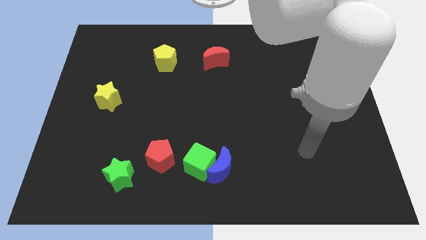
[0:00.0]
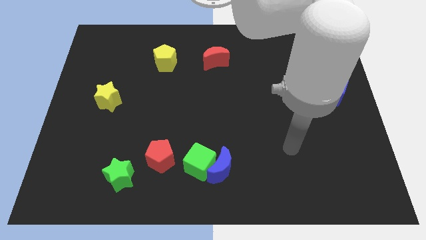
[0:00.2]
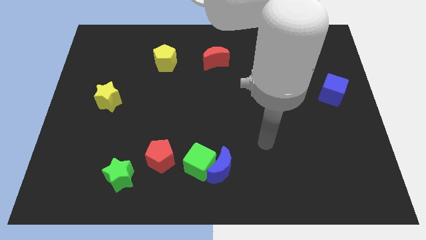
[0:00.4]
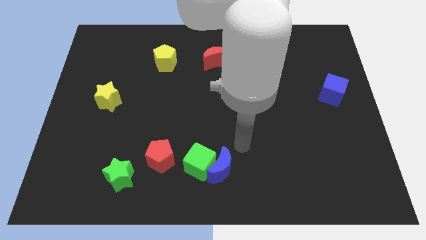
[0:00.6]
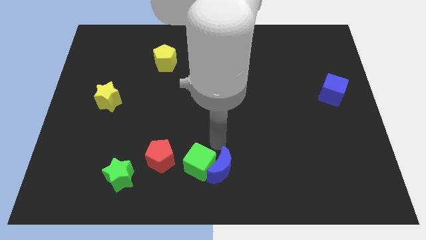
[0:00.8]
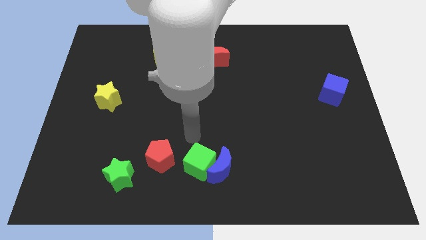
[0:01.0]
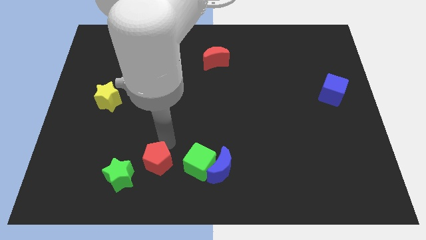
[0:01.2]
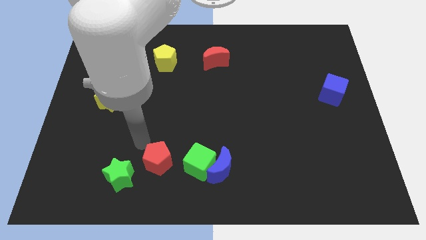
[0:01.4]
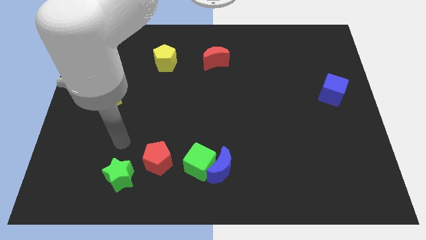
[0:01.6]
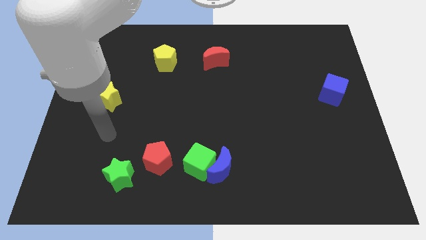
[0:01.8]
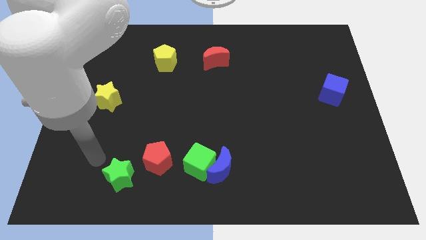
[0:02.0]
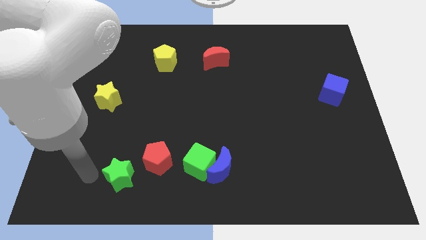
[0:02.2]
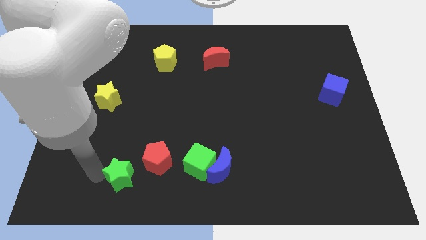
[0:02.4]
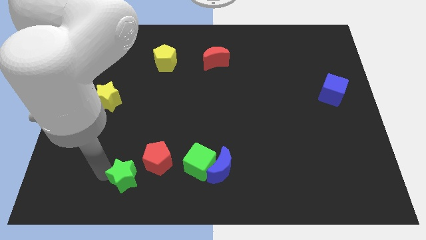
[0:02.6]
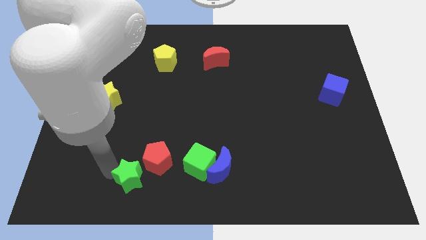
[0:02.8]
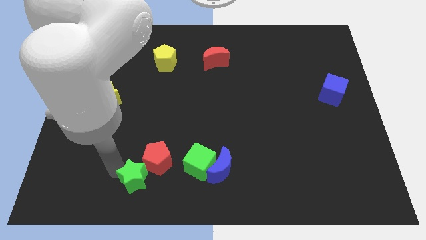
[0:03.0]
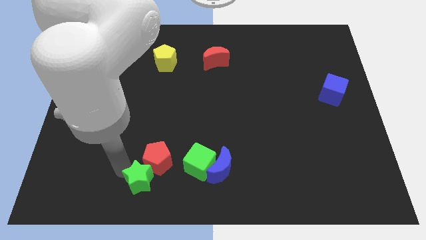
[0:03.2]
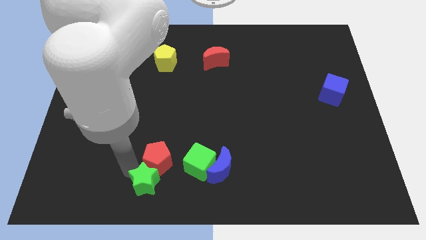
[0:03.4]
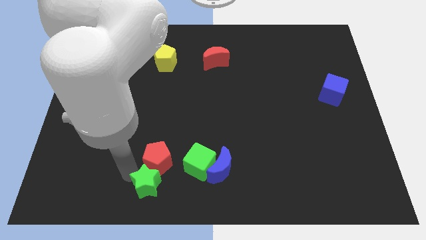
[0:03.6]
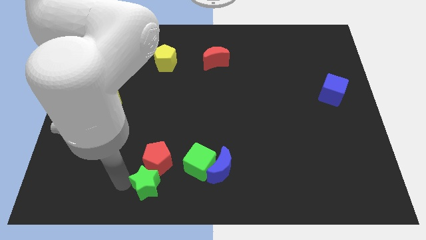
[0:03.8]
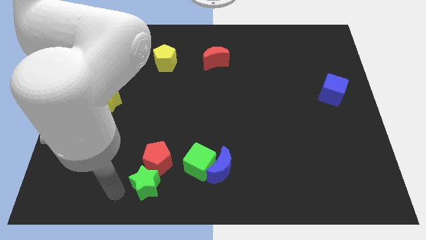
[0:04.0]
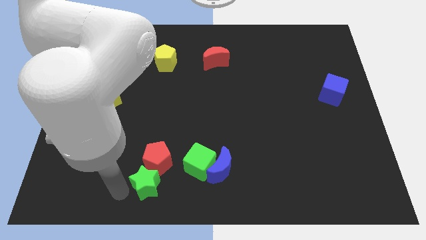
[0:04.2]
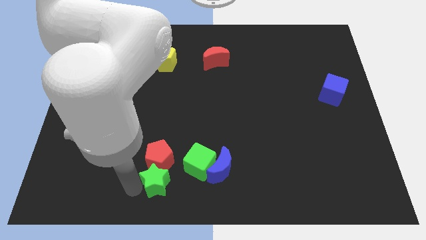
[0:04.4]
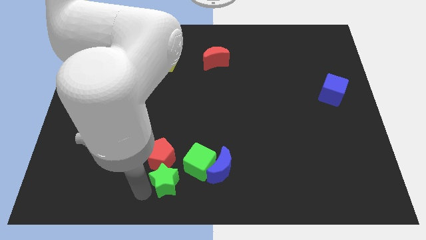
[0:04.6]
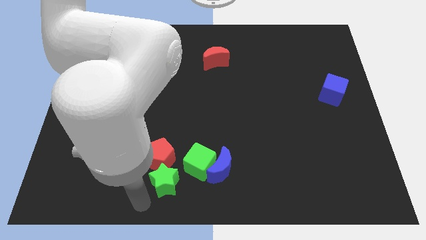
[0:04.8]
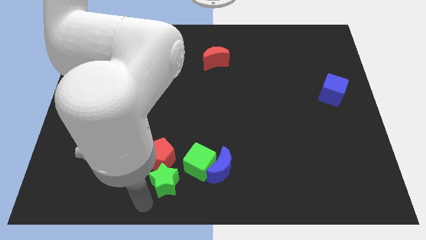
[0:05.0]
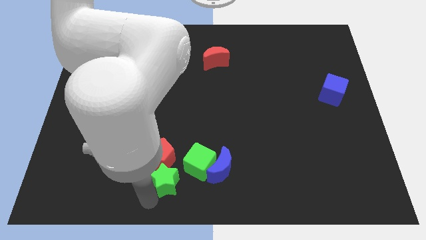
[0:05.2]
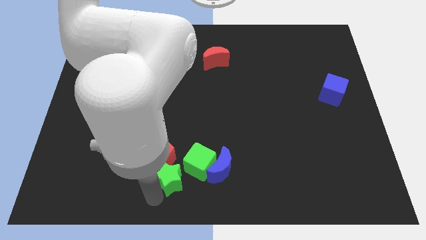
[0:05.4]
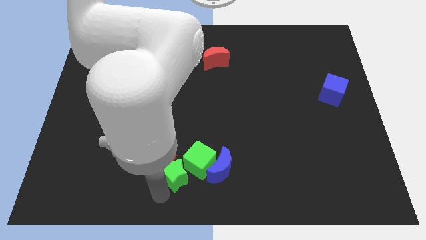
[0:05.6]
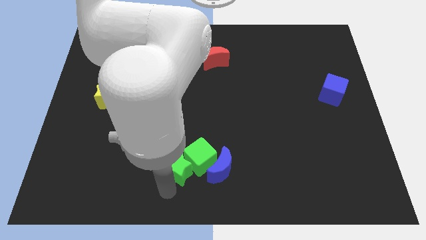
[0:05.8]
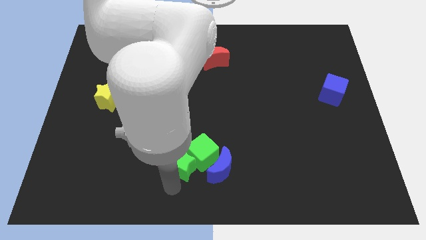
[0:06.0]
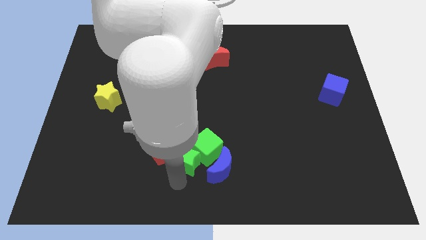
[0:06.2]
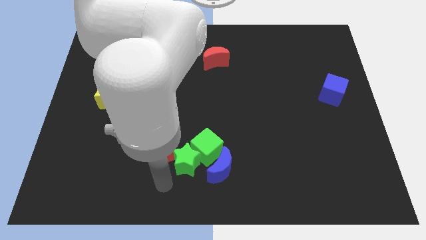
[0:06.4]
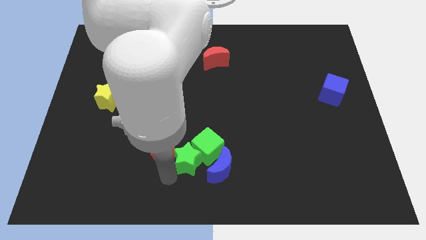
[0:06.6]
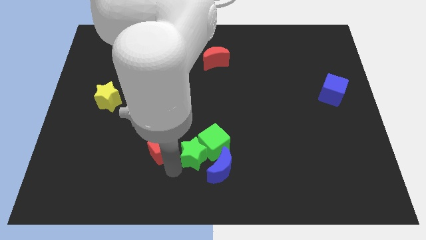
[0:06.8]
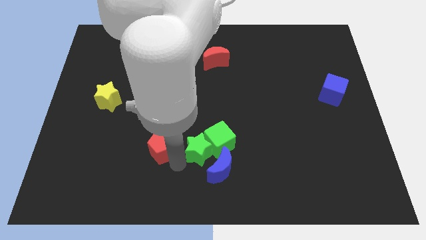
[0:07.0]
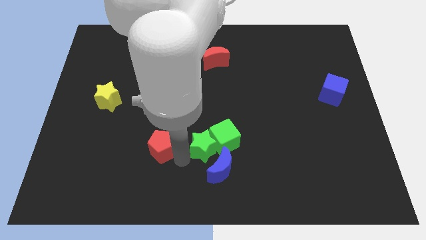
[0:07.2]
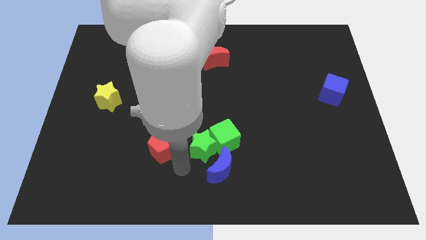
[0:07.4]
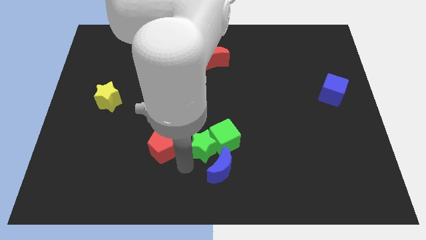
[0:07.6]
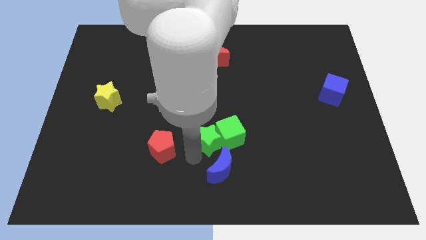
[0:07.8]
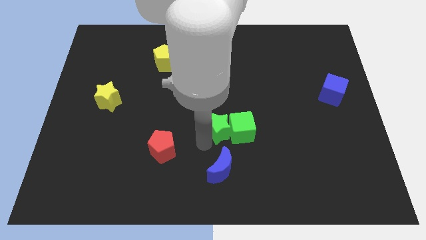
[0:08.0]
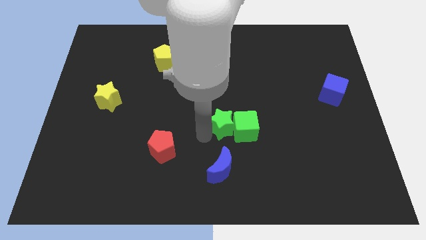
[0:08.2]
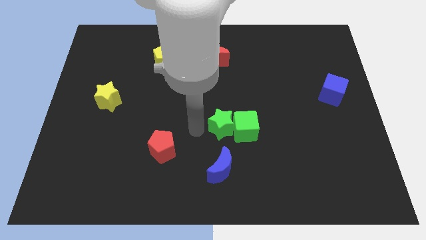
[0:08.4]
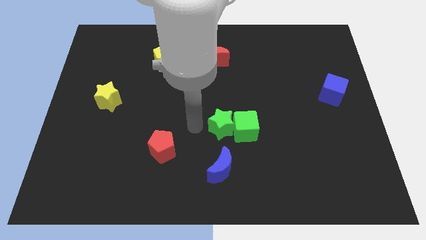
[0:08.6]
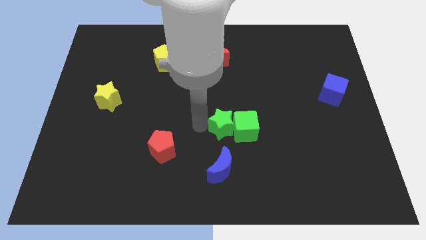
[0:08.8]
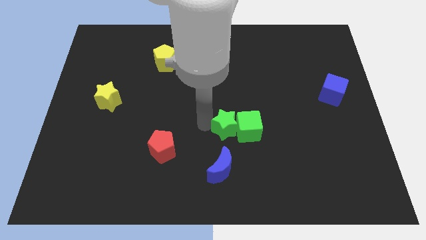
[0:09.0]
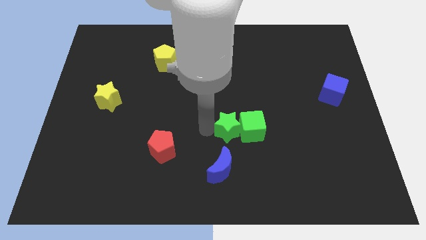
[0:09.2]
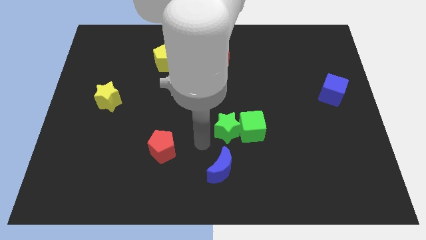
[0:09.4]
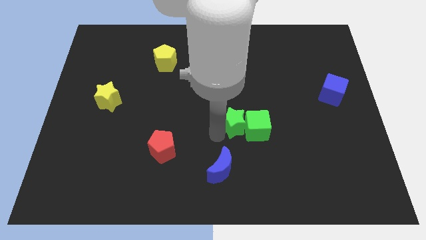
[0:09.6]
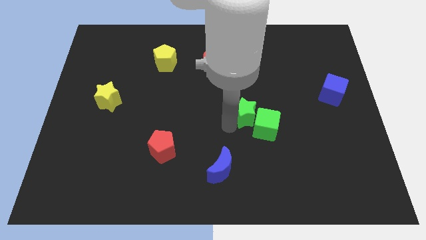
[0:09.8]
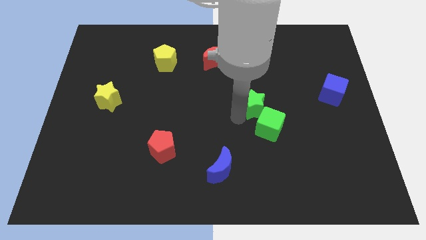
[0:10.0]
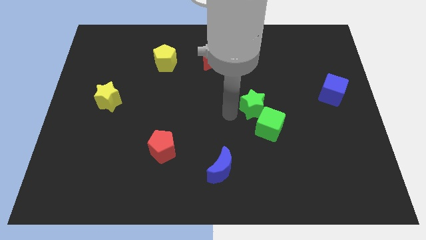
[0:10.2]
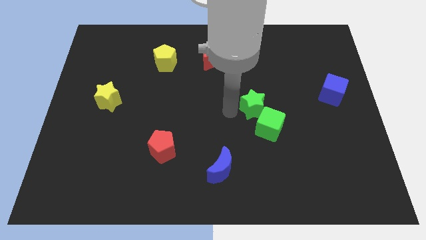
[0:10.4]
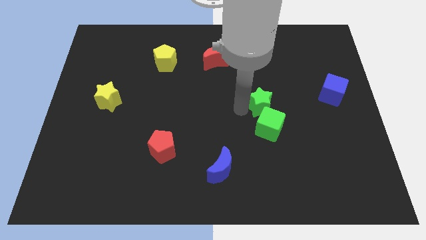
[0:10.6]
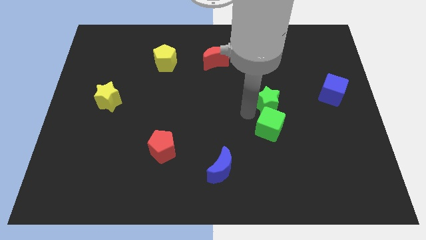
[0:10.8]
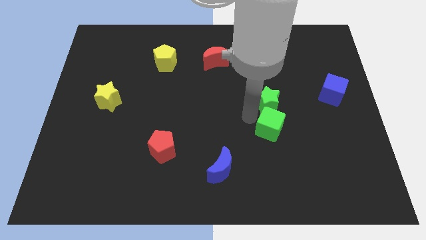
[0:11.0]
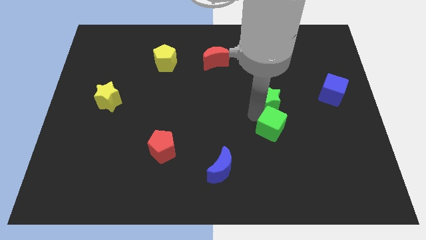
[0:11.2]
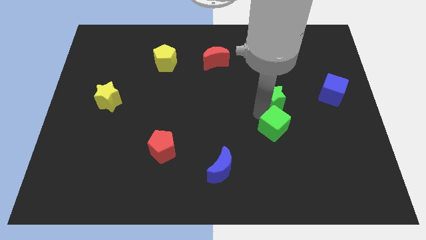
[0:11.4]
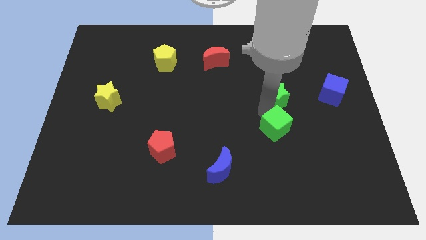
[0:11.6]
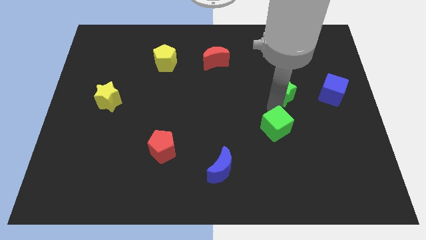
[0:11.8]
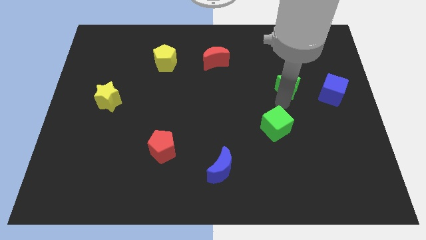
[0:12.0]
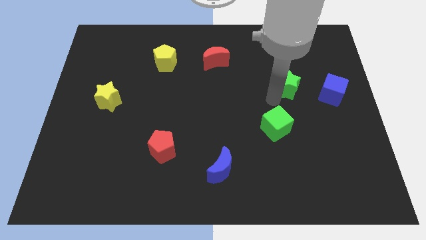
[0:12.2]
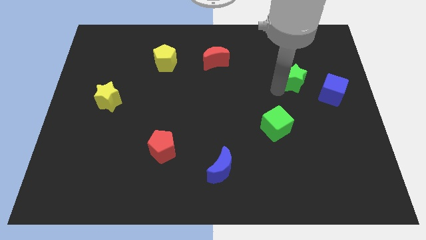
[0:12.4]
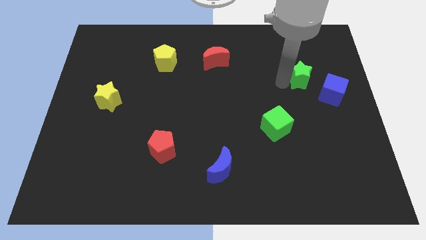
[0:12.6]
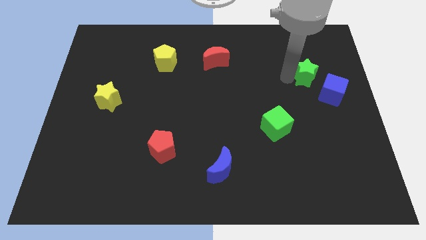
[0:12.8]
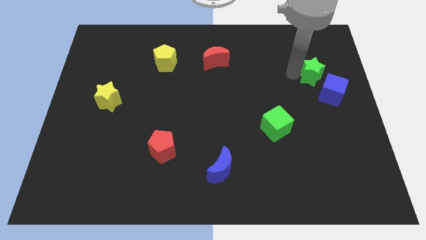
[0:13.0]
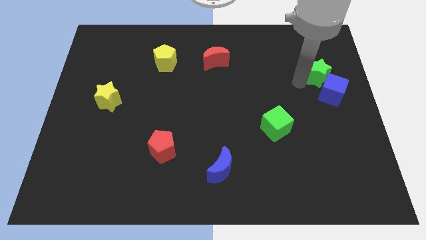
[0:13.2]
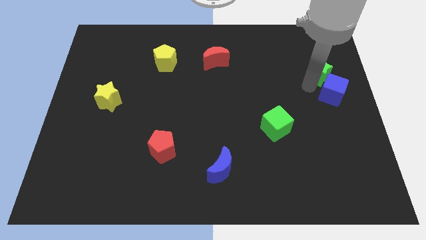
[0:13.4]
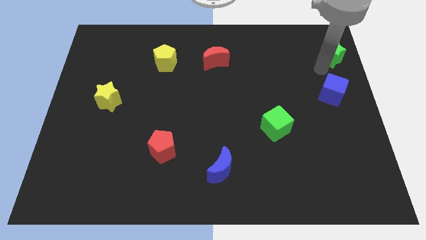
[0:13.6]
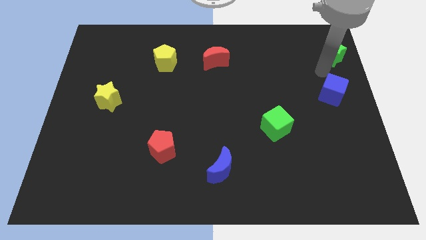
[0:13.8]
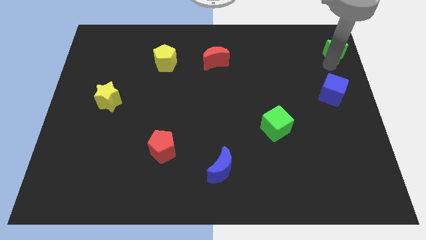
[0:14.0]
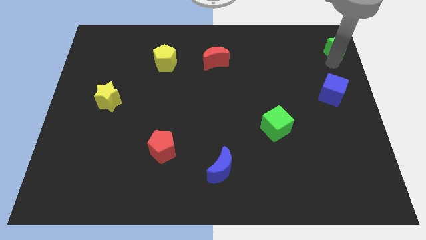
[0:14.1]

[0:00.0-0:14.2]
move the green star to the top right of the board
